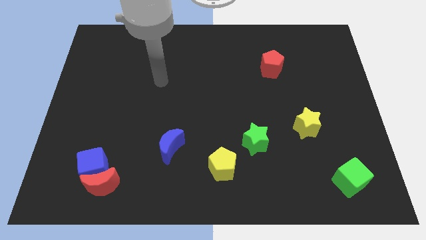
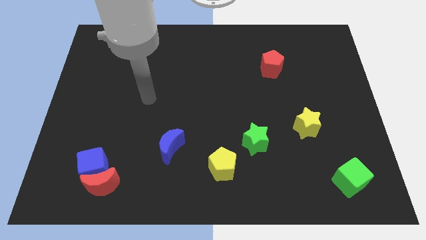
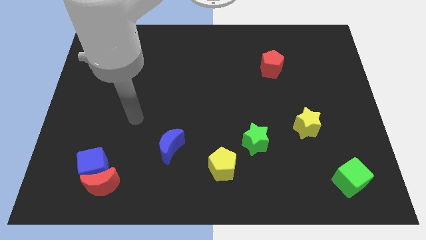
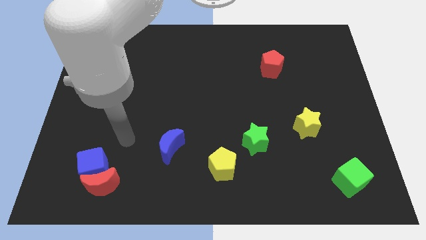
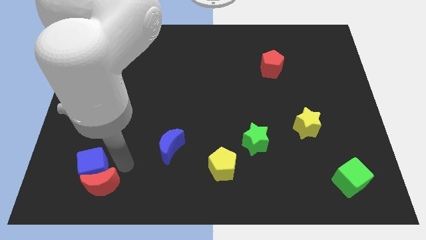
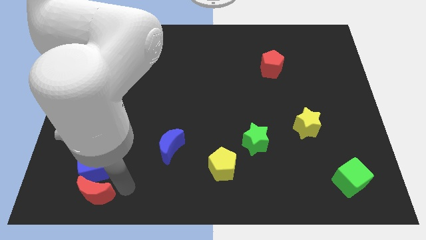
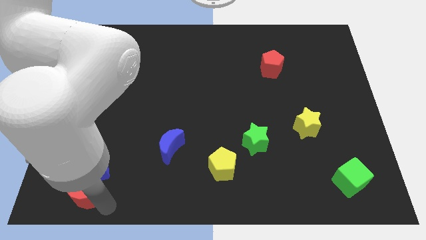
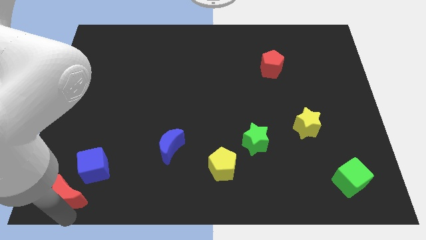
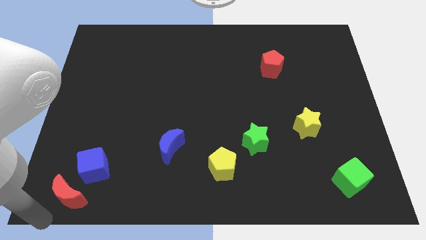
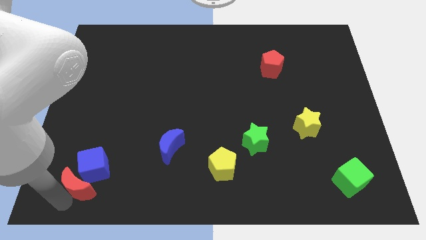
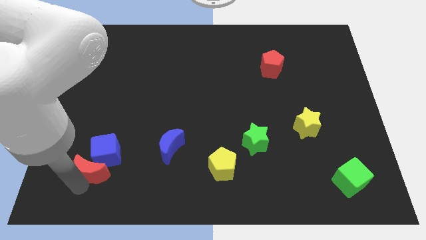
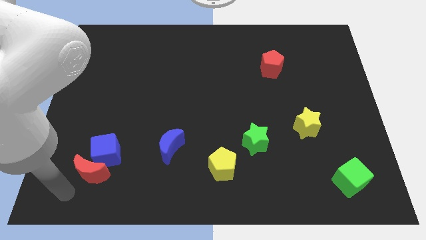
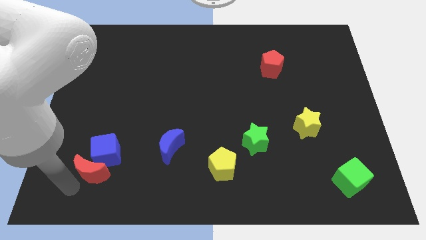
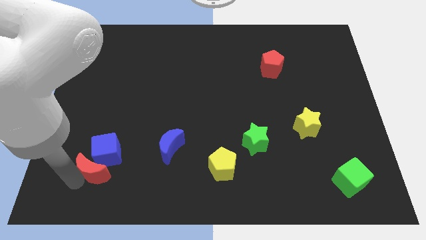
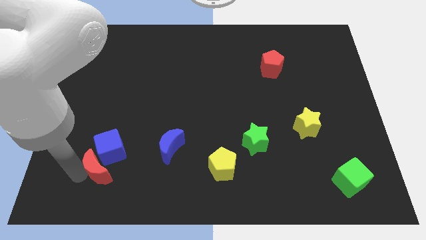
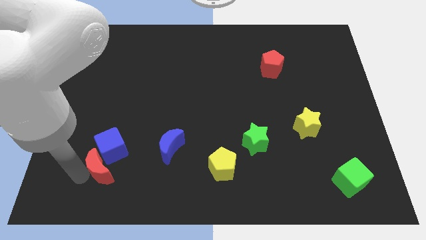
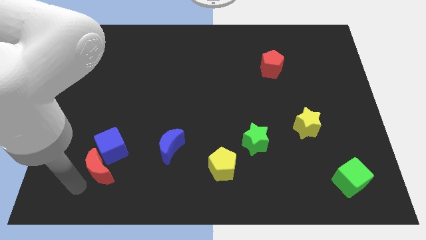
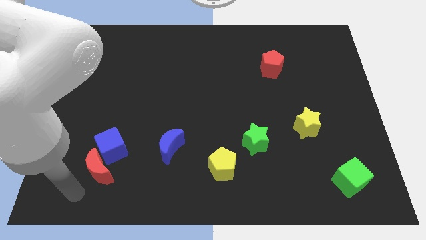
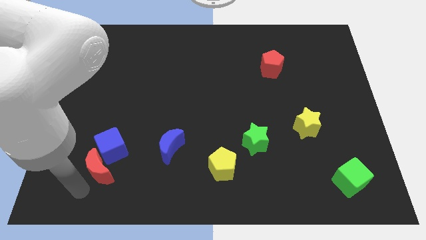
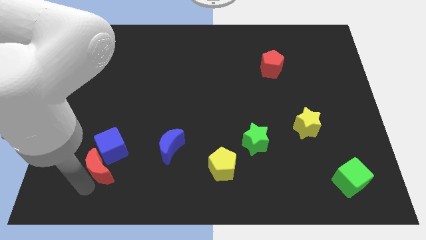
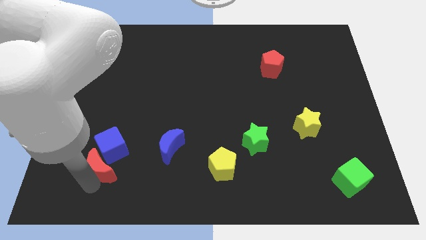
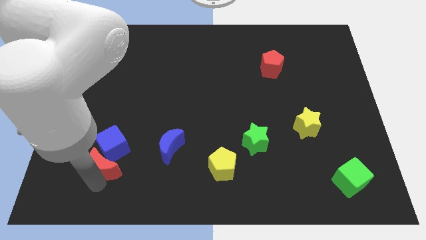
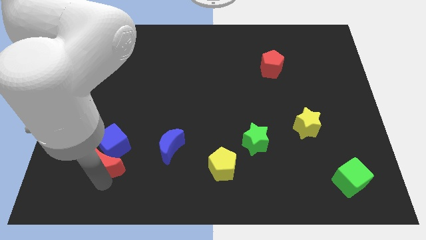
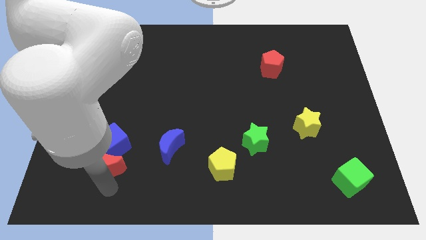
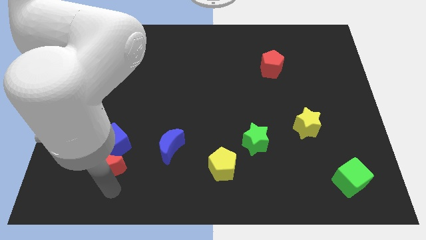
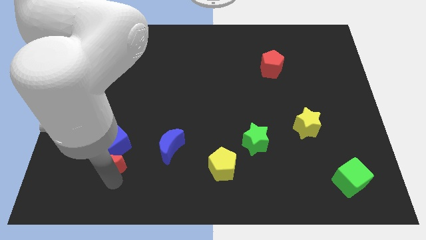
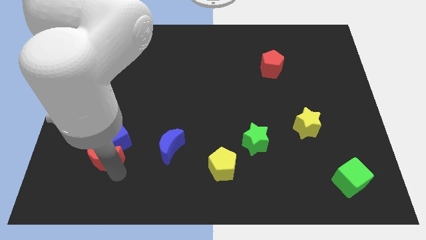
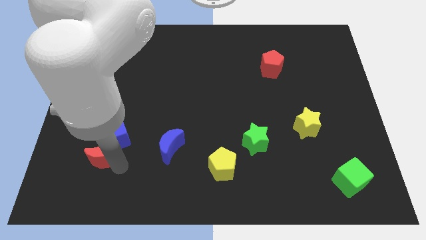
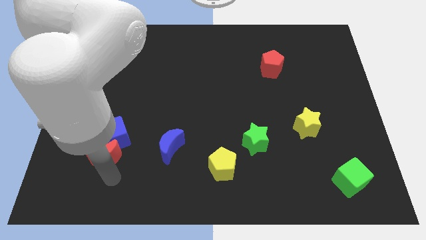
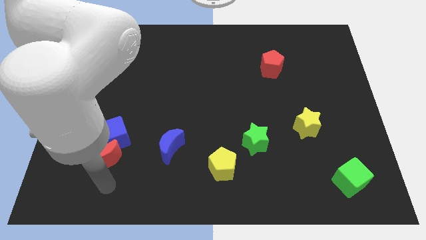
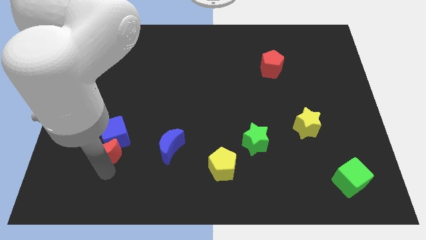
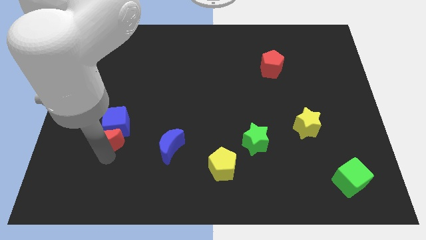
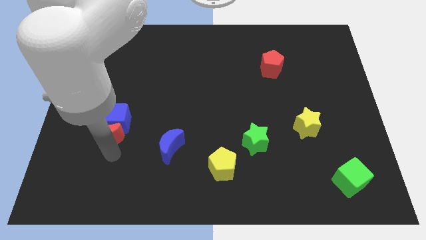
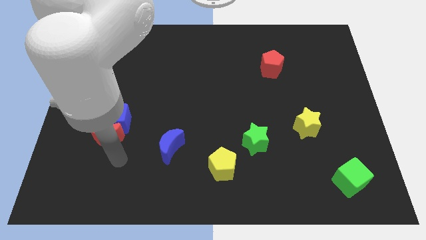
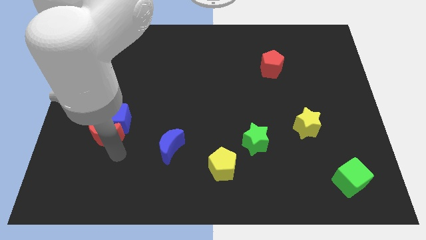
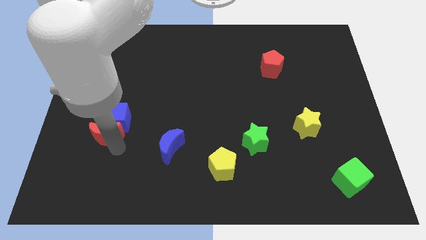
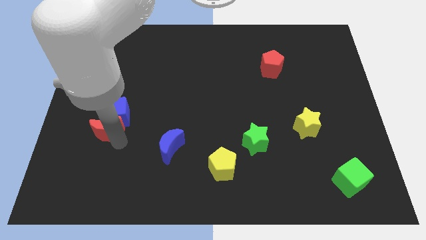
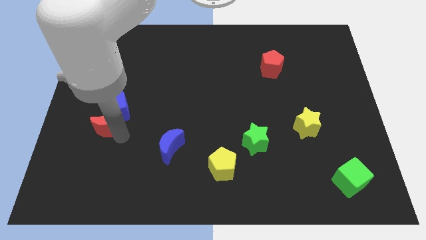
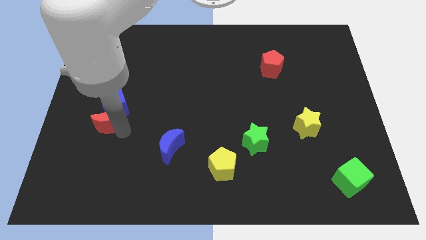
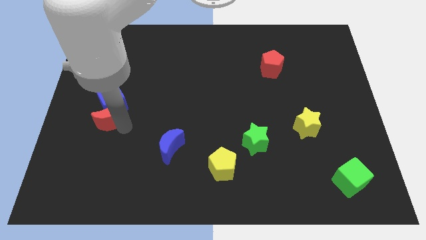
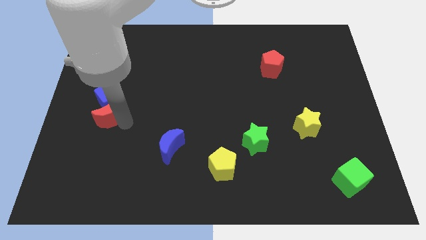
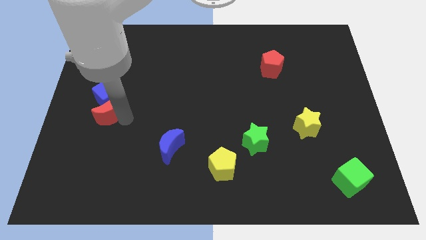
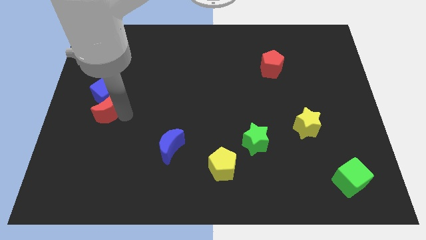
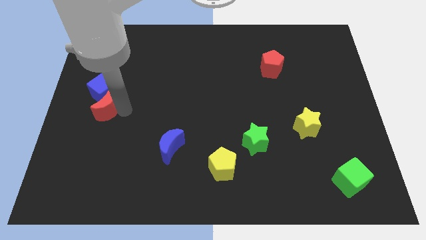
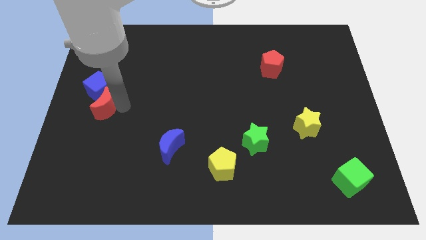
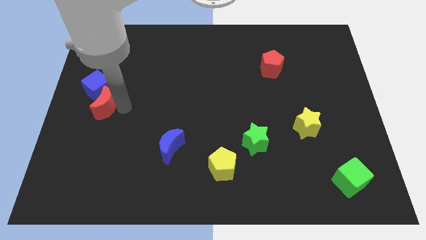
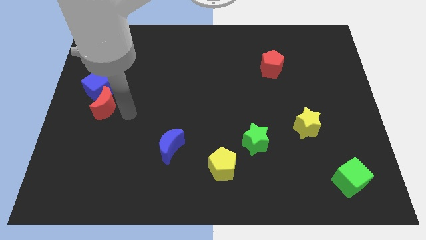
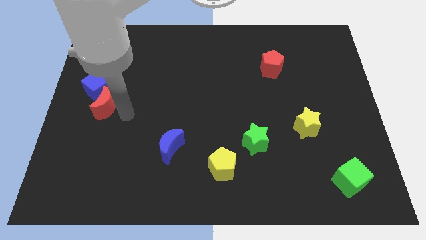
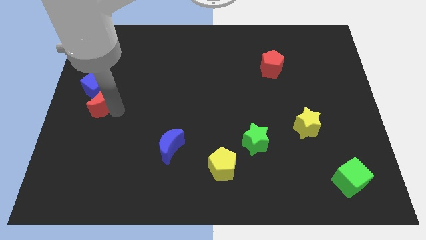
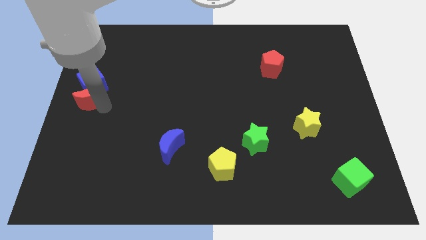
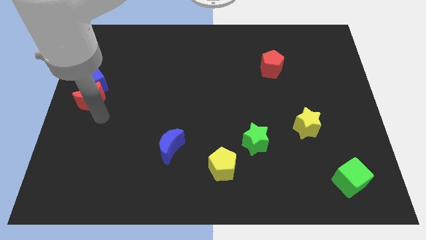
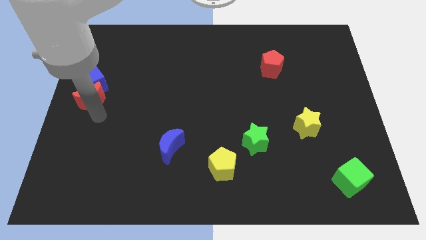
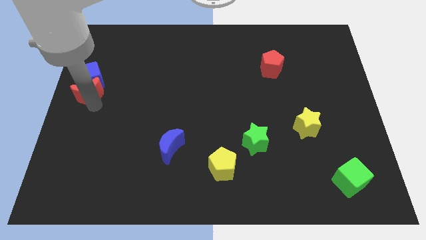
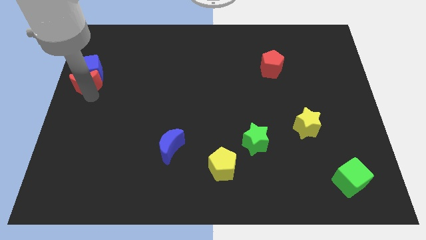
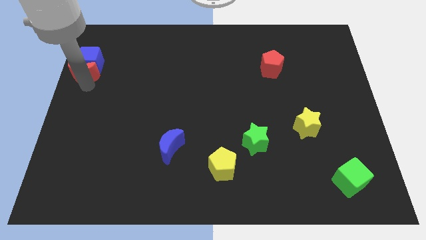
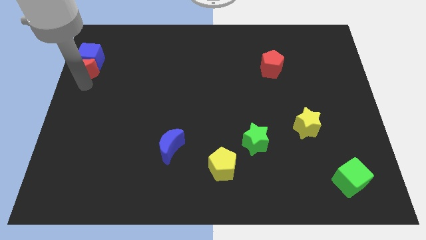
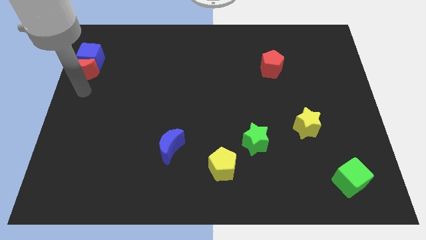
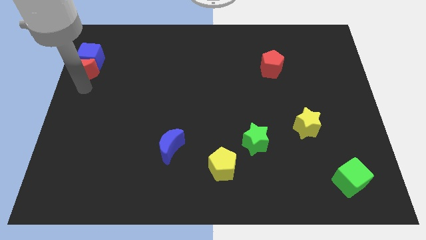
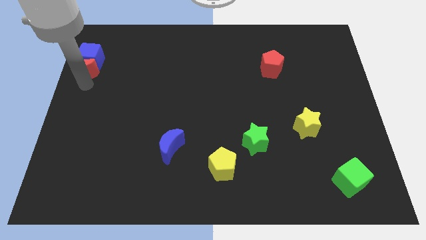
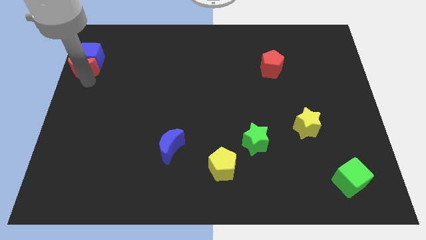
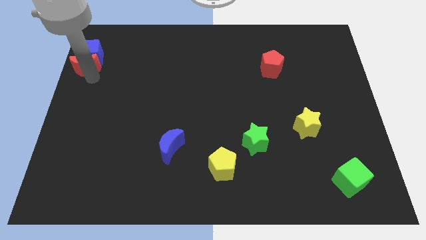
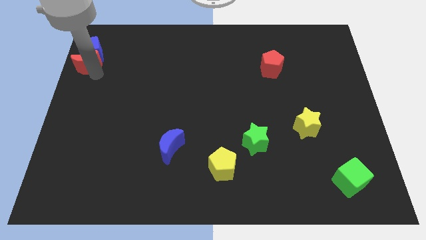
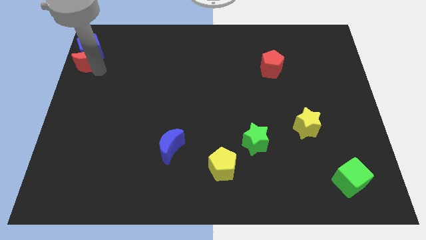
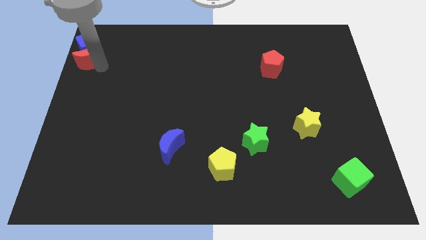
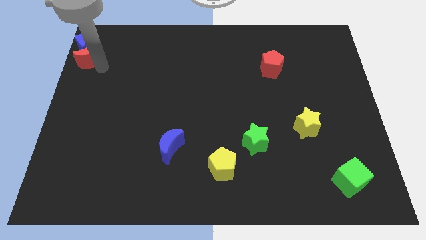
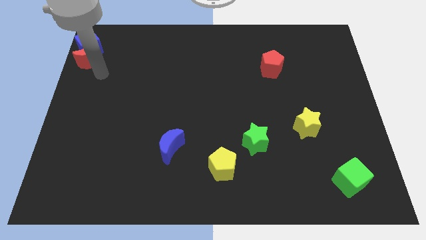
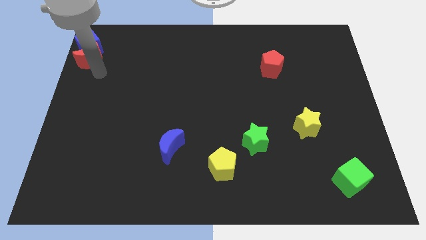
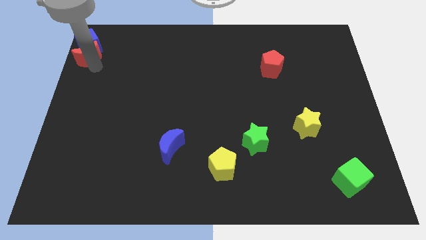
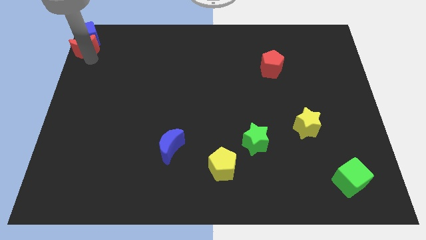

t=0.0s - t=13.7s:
put the red moon to the upper left corner

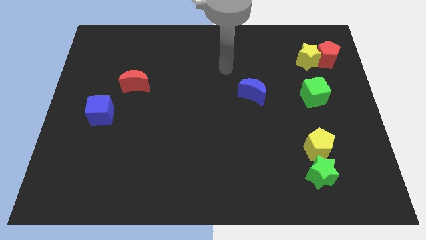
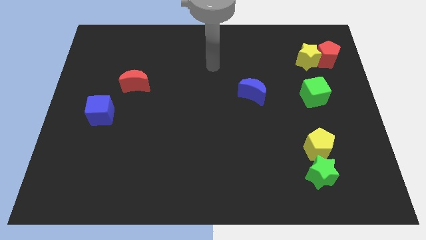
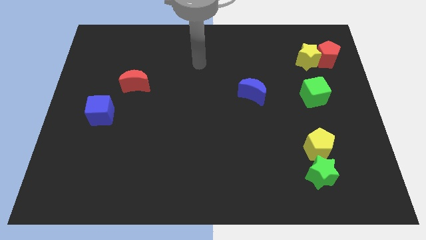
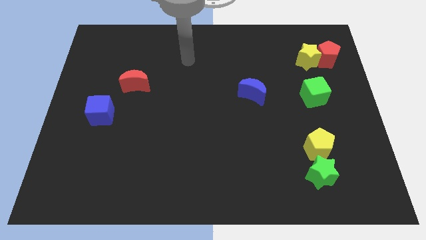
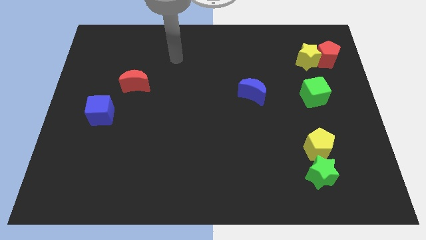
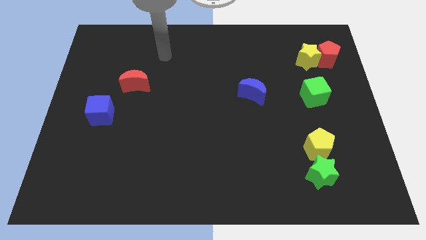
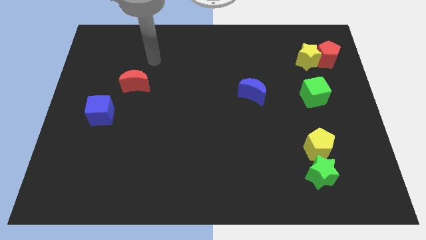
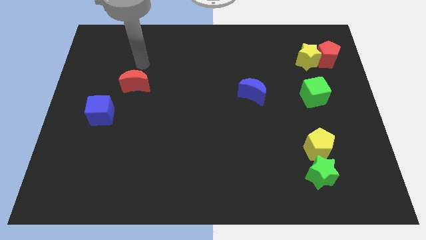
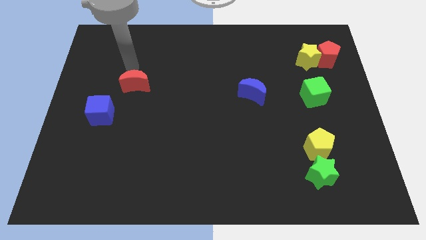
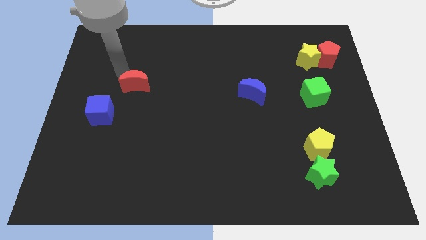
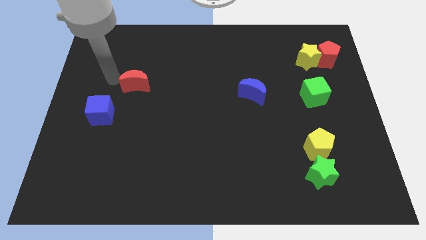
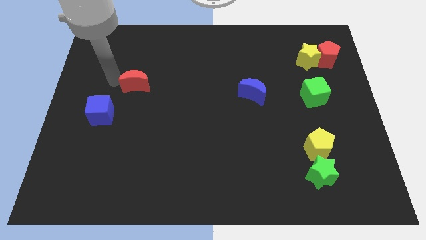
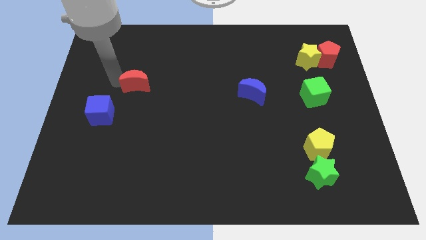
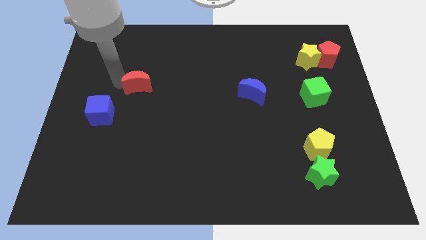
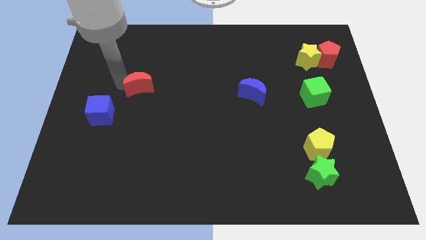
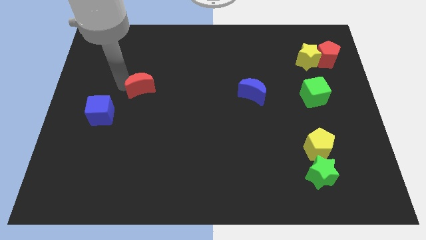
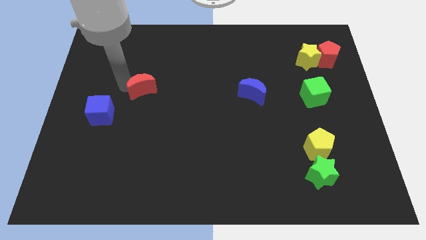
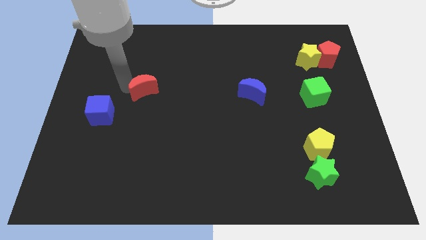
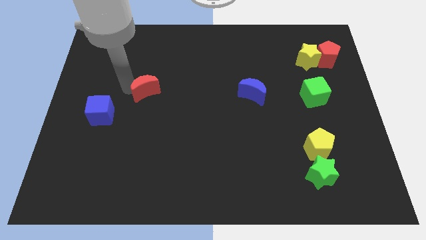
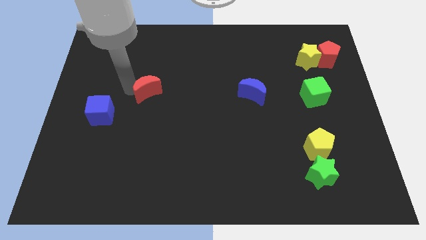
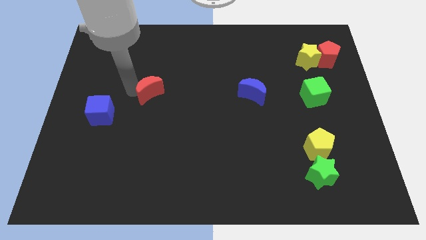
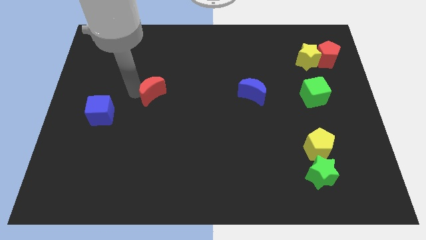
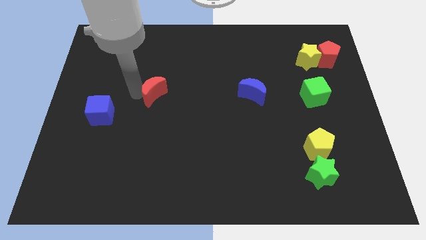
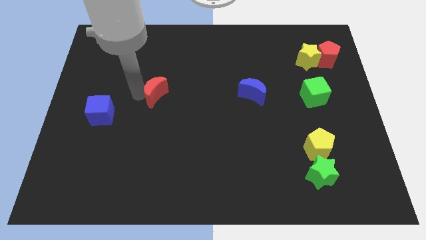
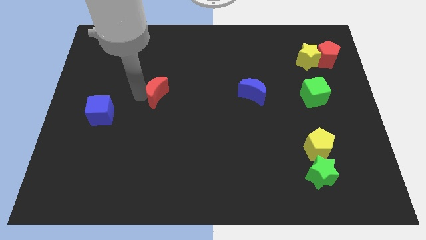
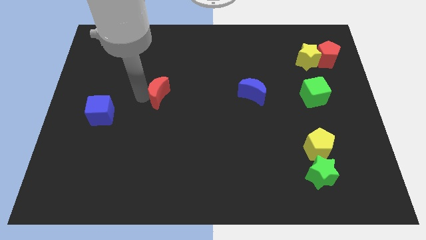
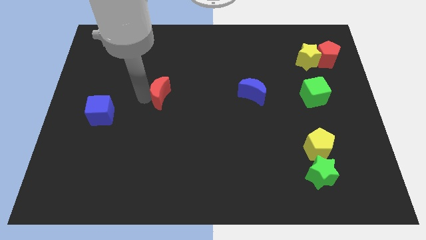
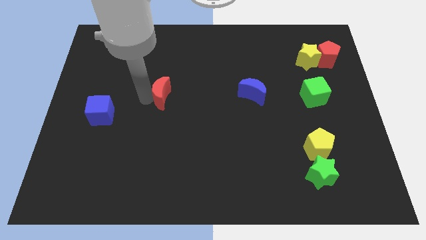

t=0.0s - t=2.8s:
slide the red moon to the center of the board
